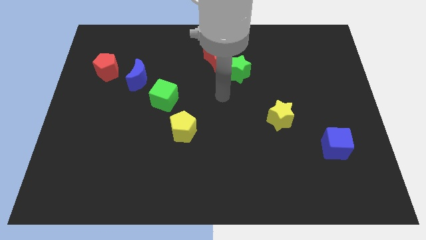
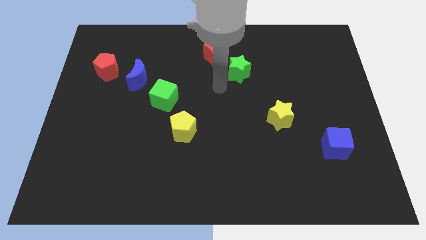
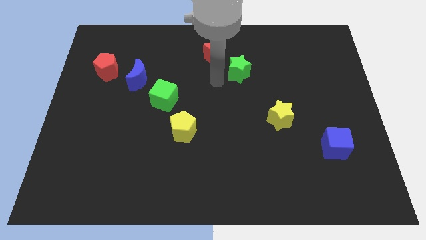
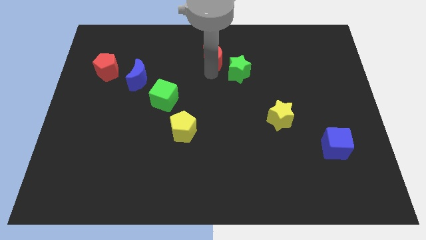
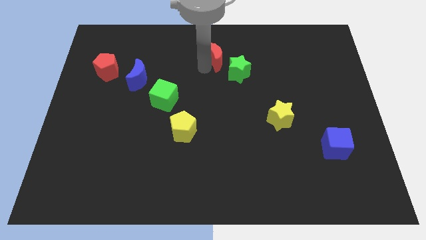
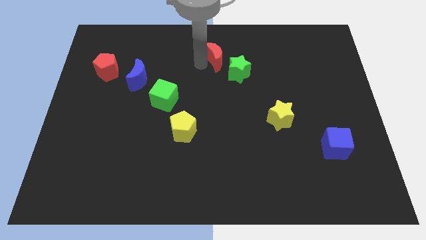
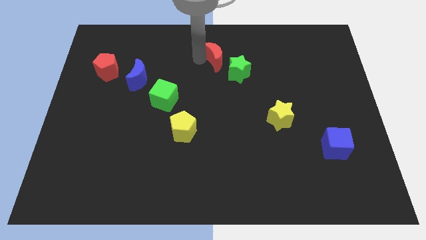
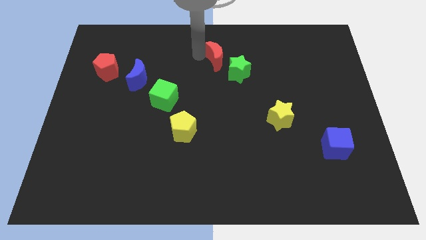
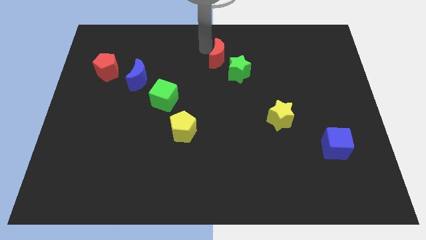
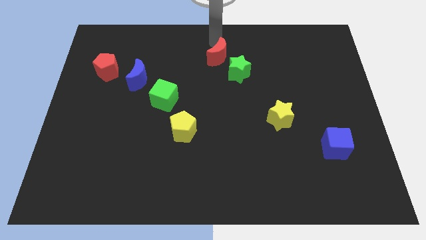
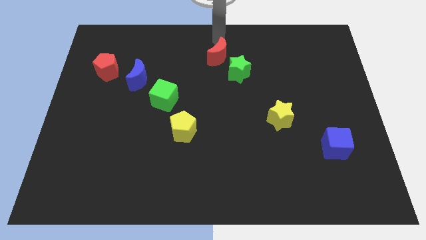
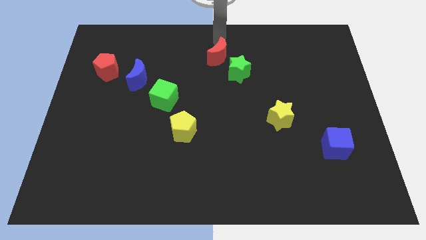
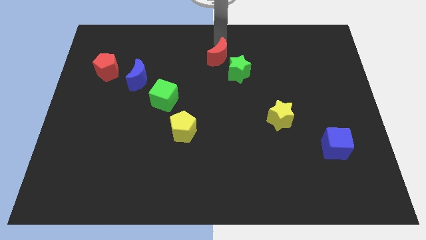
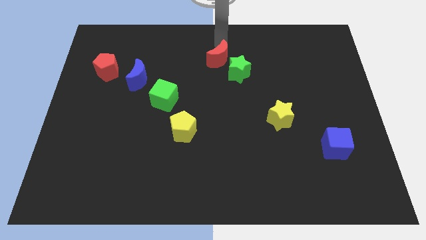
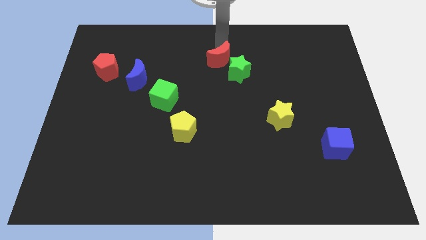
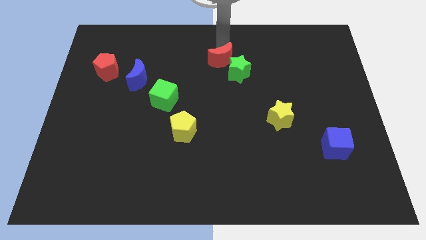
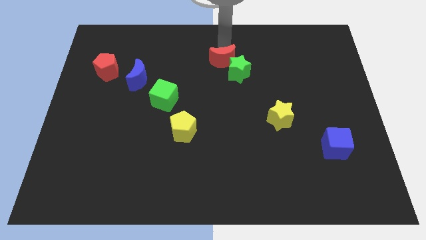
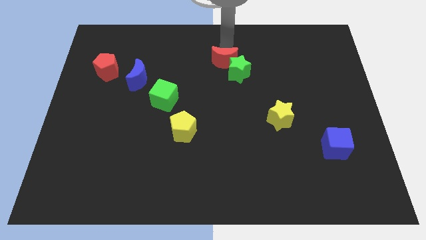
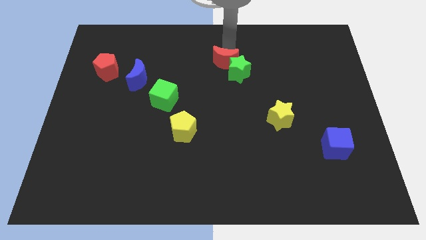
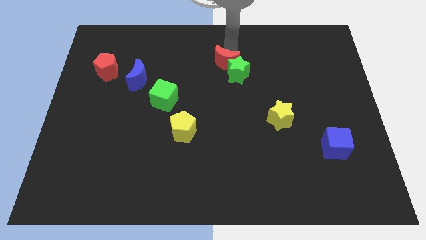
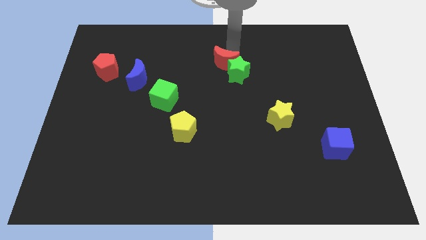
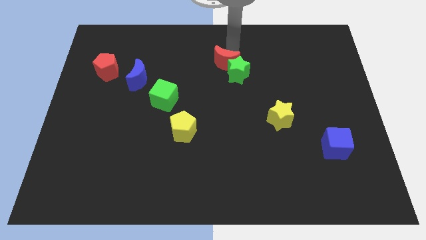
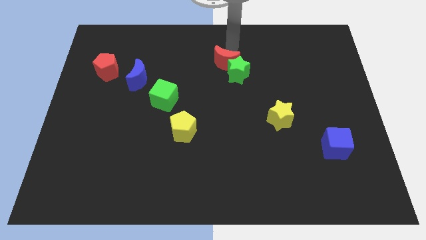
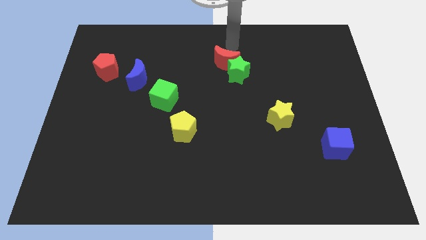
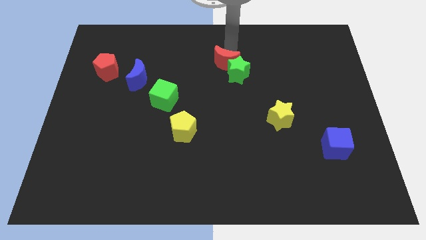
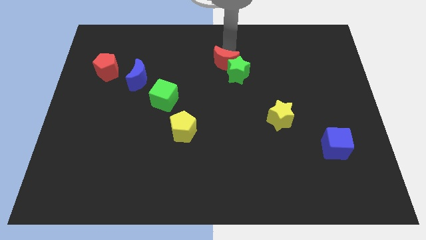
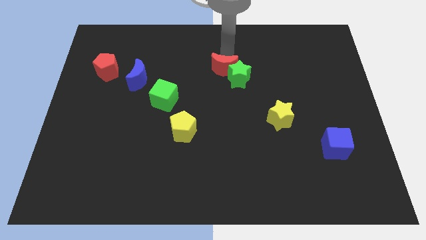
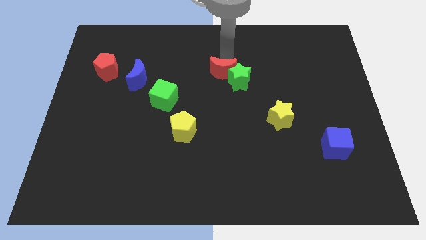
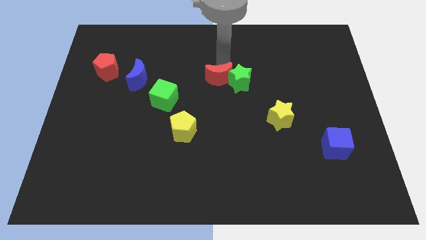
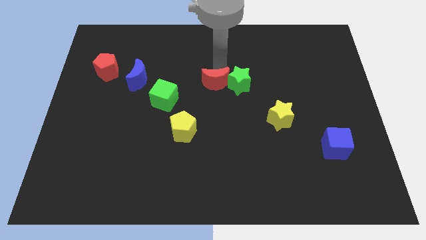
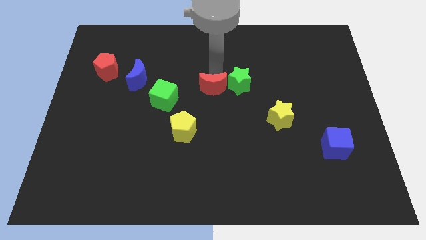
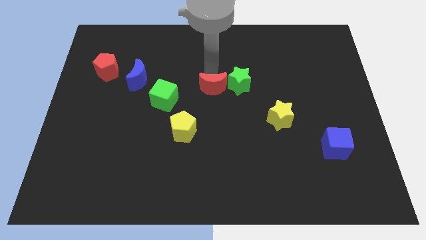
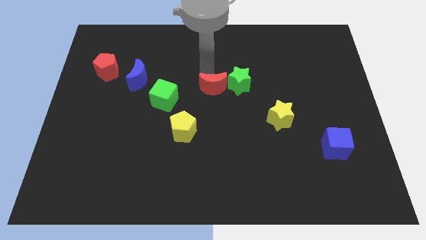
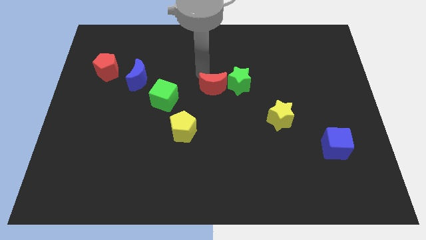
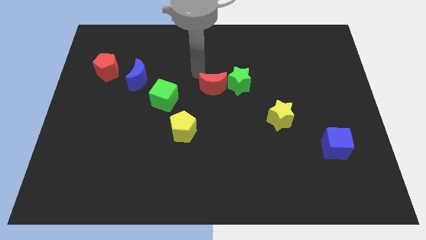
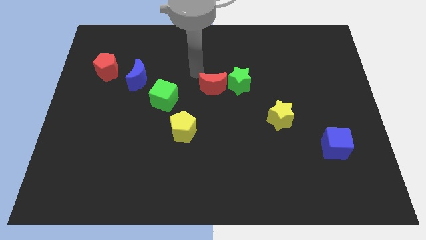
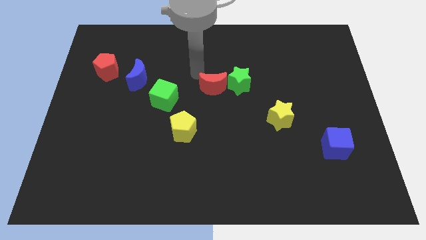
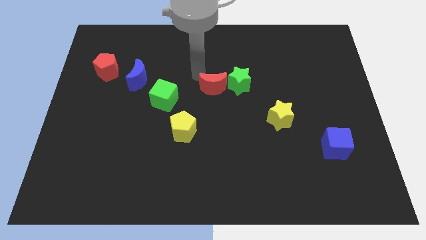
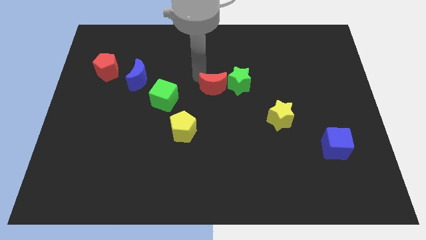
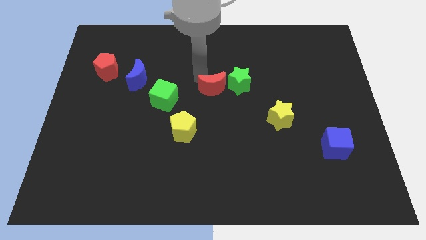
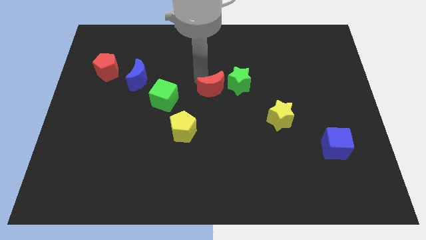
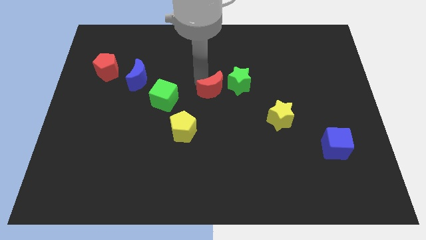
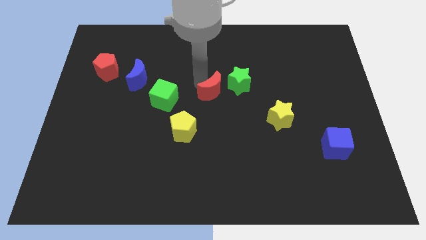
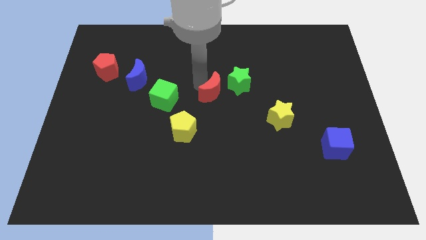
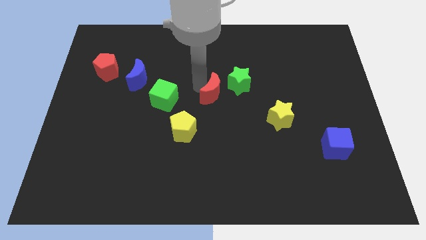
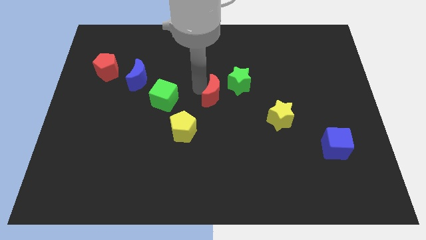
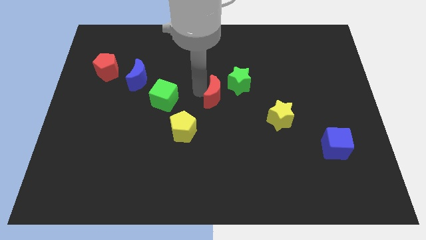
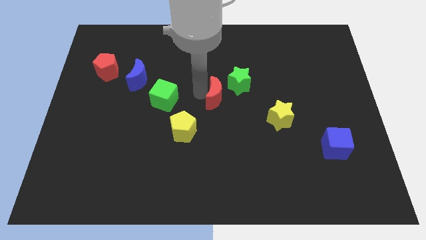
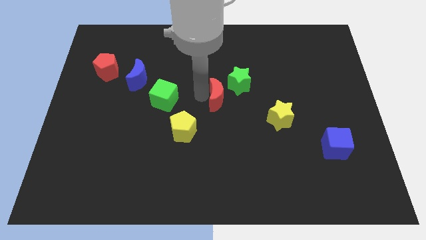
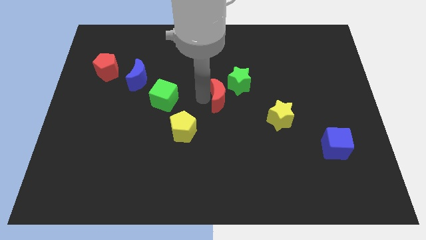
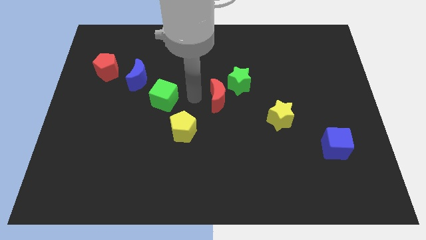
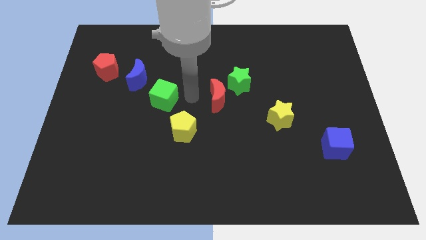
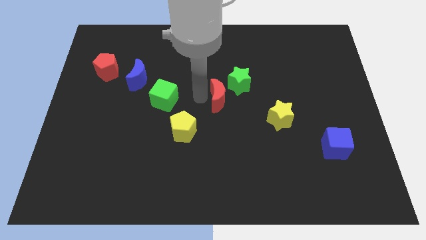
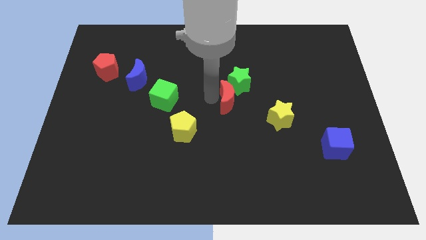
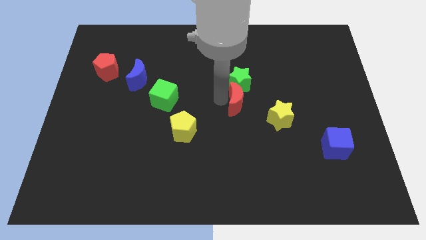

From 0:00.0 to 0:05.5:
move the red moon to the bottom right side of the green star

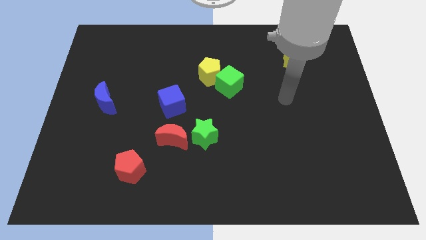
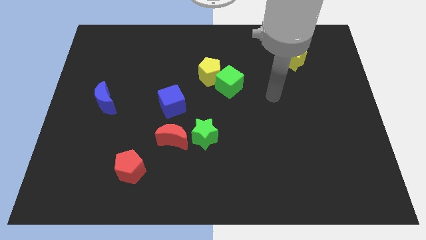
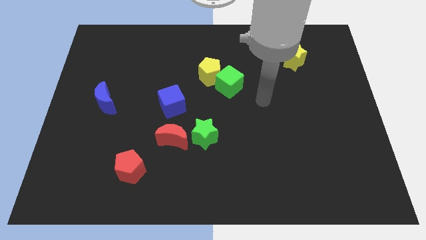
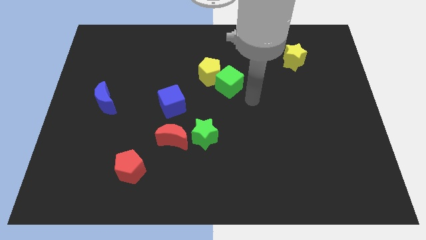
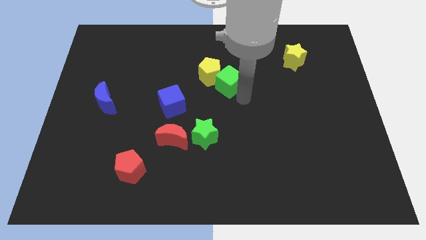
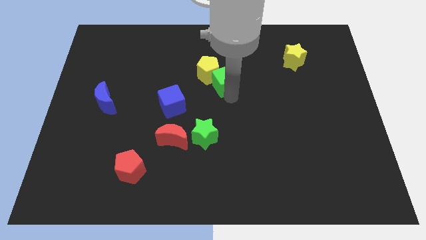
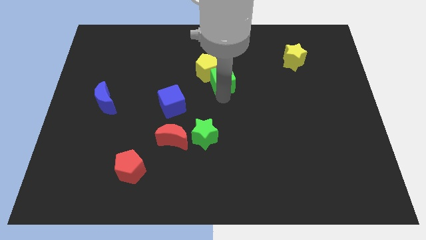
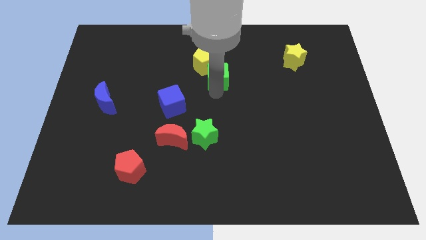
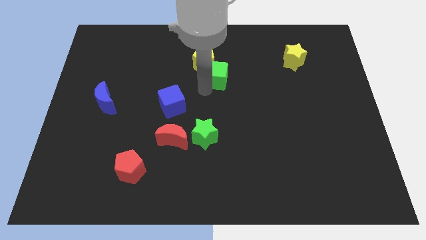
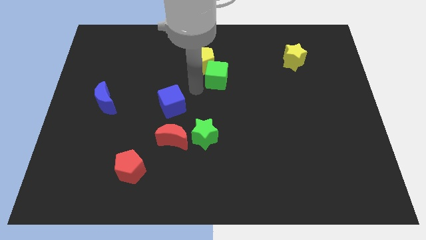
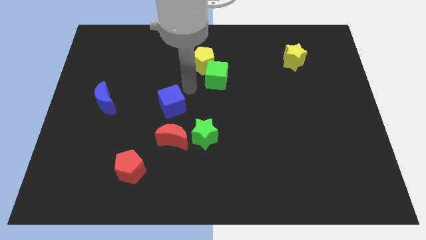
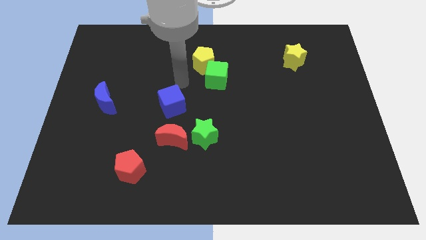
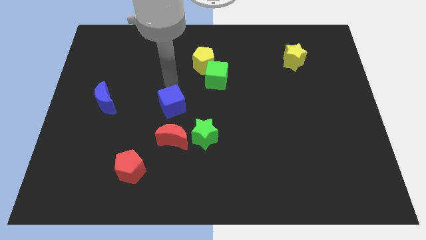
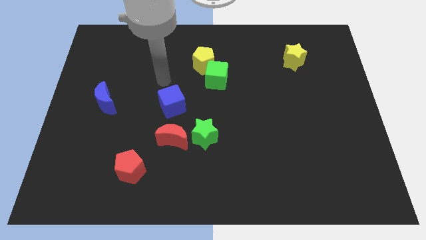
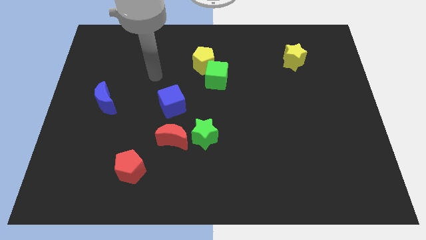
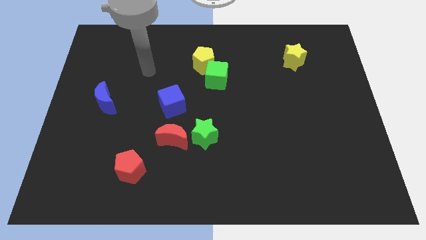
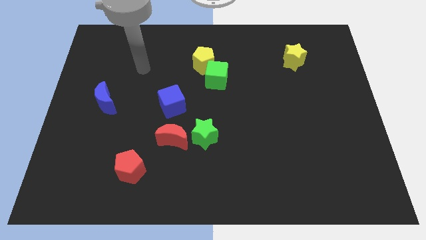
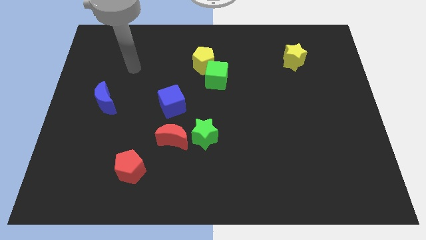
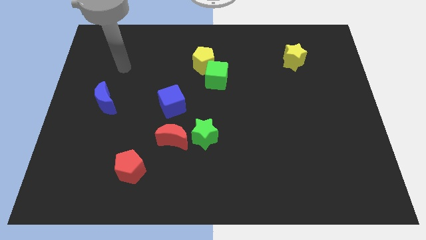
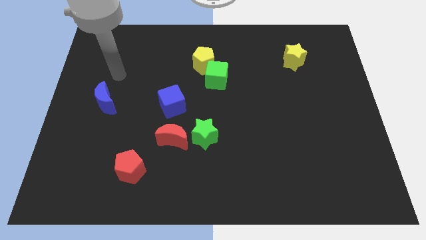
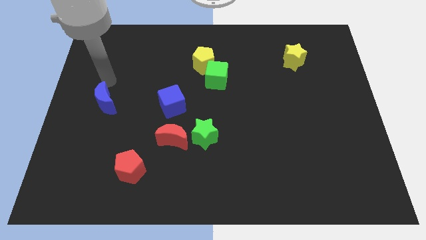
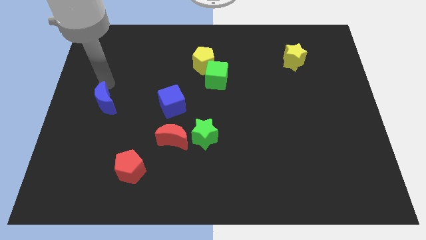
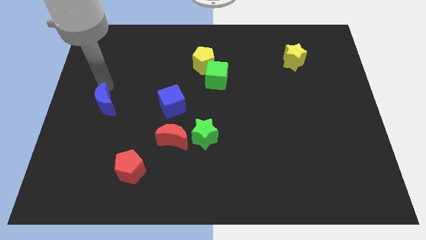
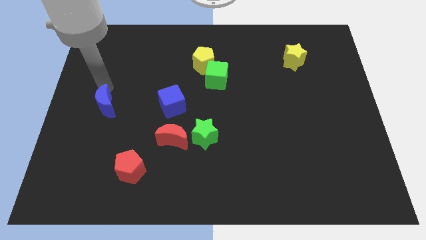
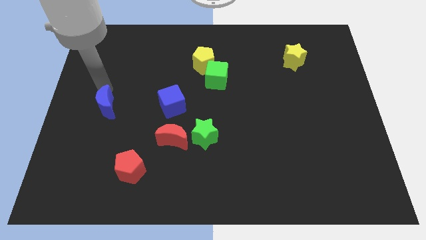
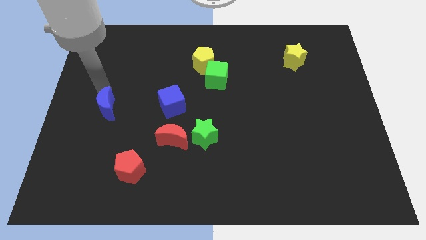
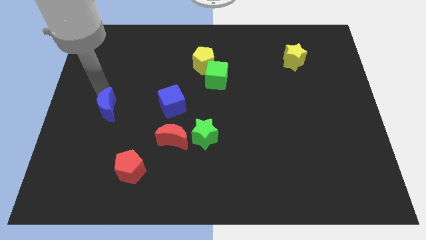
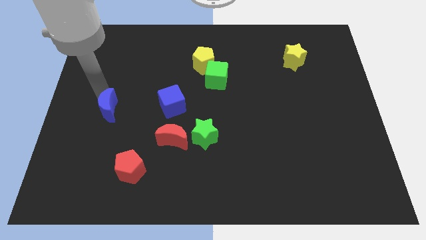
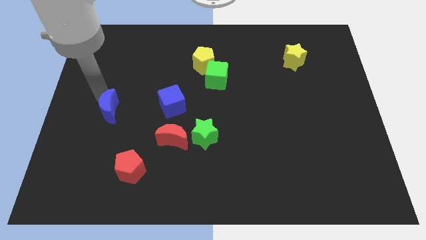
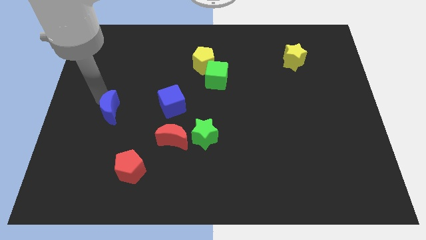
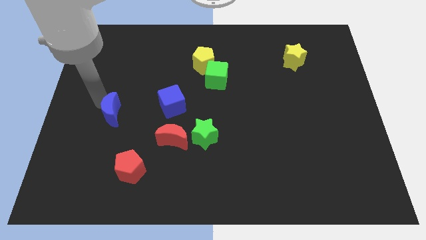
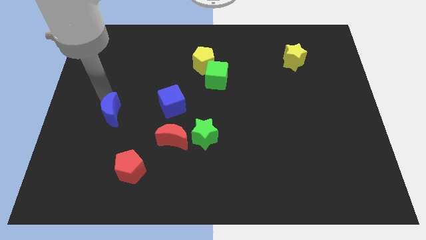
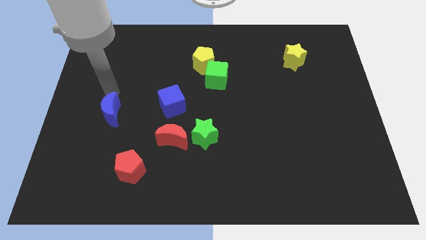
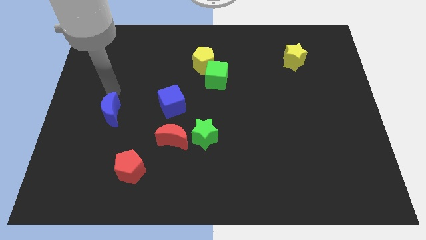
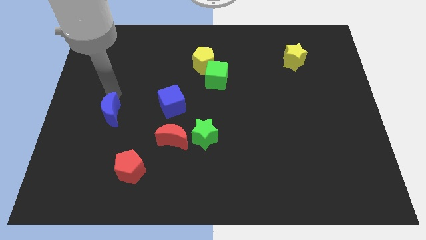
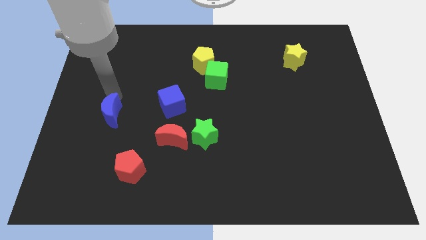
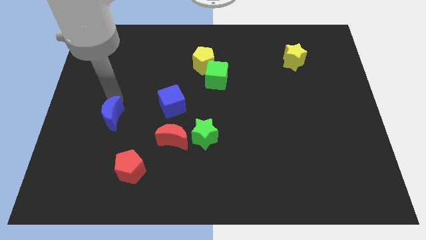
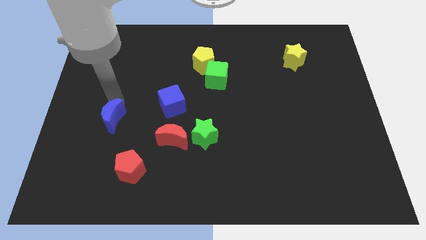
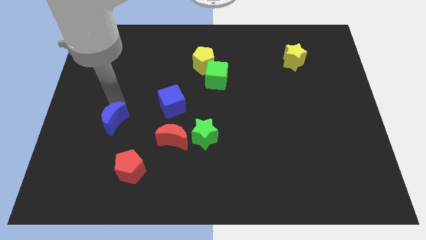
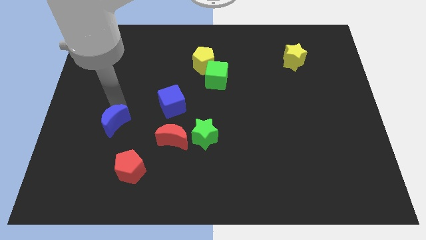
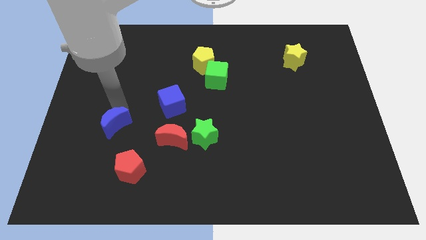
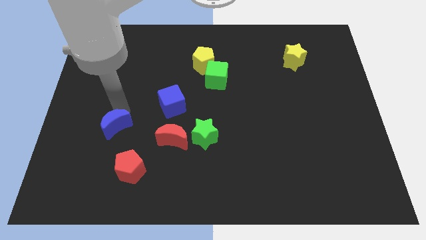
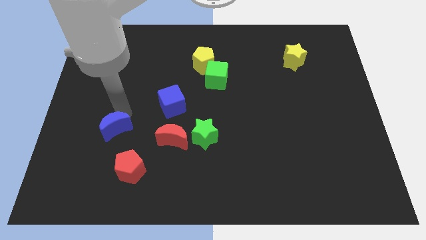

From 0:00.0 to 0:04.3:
put the blue moon to the top left of the red pentagon
